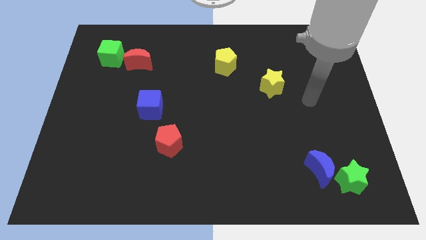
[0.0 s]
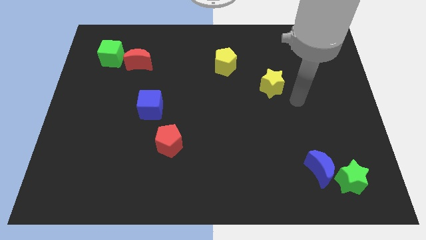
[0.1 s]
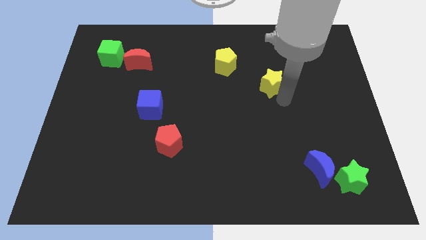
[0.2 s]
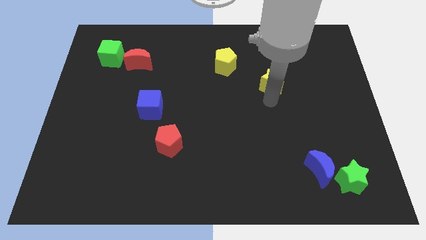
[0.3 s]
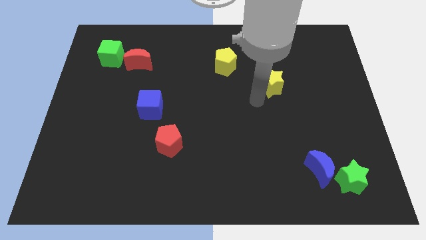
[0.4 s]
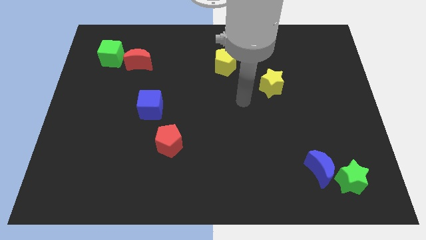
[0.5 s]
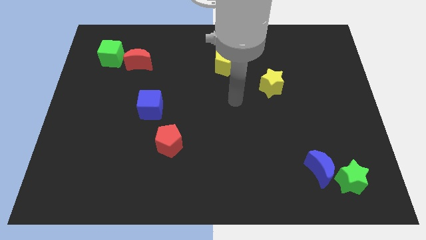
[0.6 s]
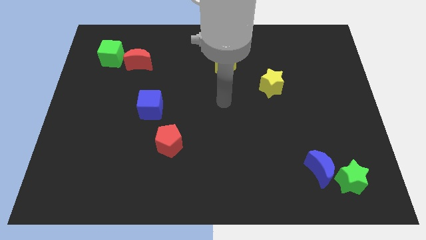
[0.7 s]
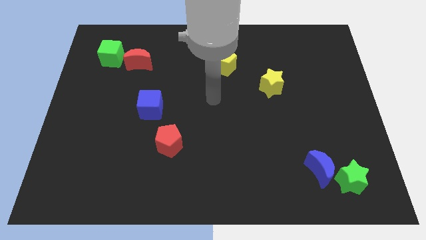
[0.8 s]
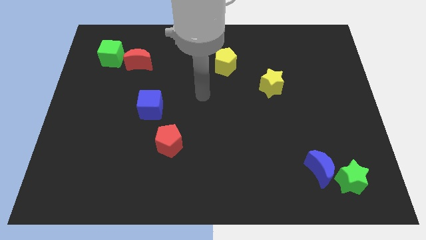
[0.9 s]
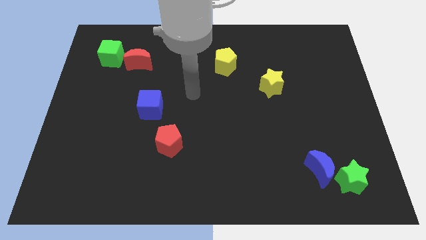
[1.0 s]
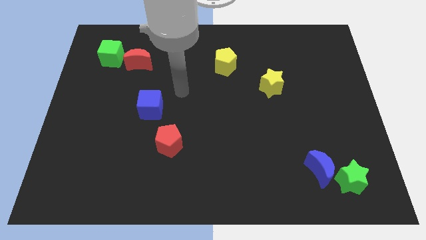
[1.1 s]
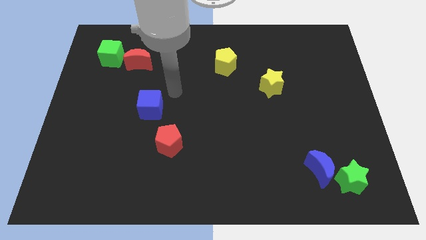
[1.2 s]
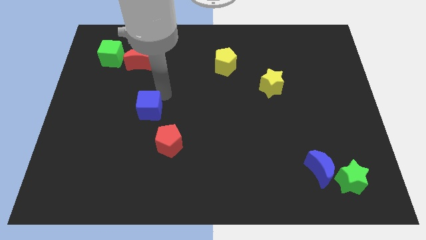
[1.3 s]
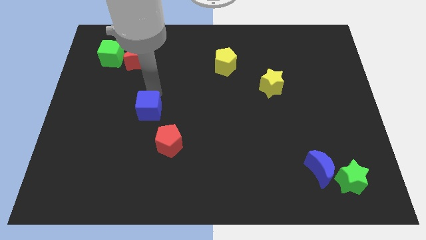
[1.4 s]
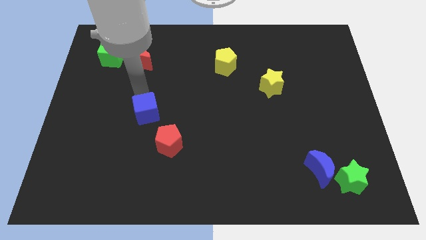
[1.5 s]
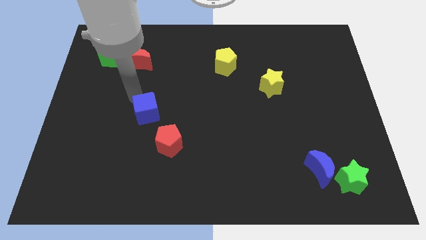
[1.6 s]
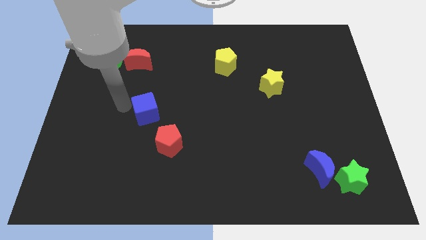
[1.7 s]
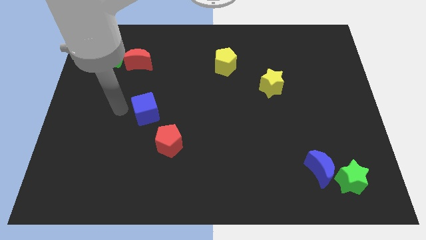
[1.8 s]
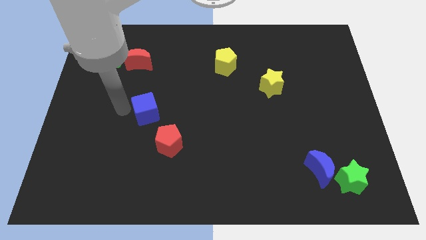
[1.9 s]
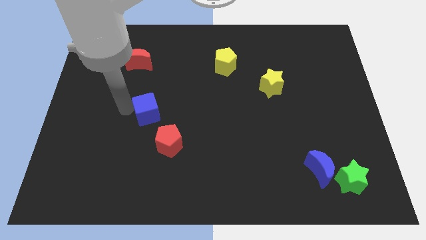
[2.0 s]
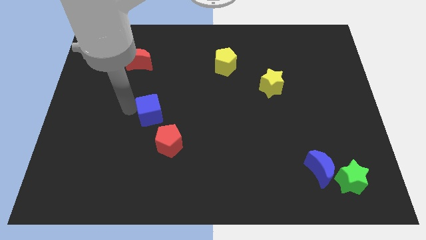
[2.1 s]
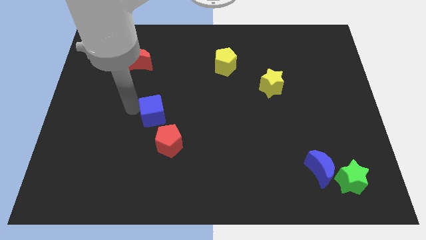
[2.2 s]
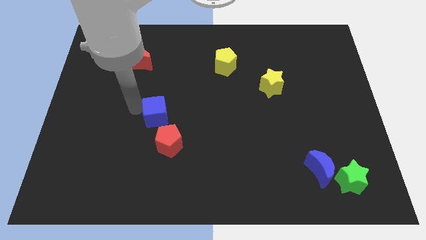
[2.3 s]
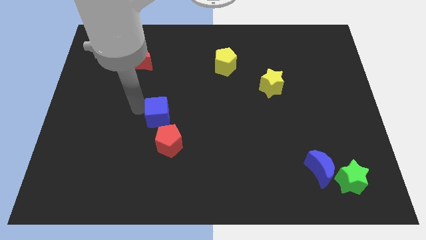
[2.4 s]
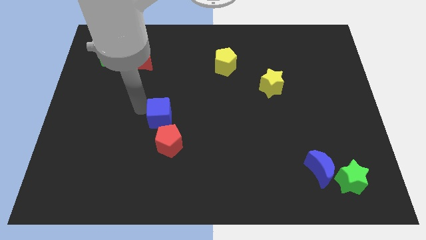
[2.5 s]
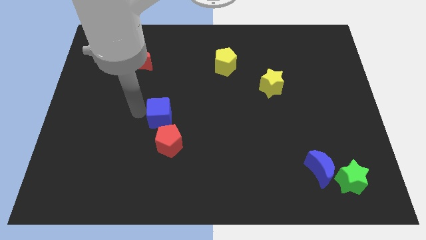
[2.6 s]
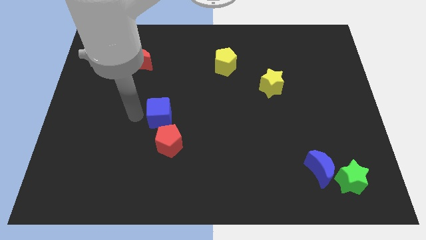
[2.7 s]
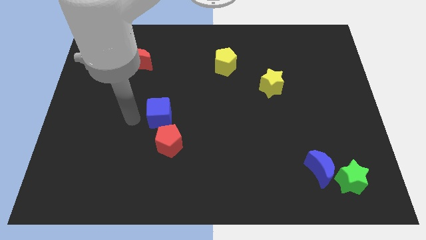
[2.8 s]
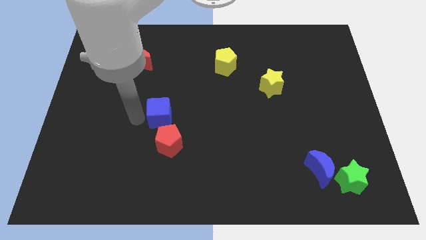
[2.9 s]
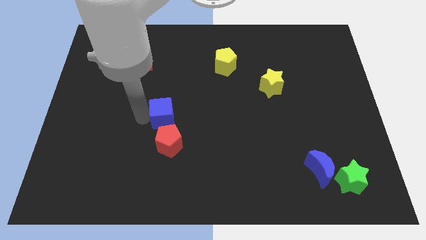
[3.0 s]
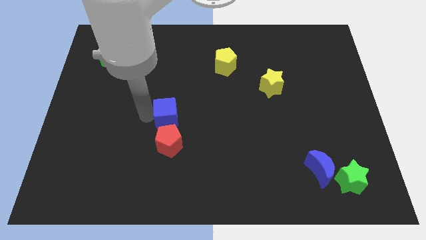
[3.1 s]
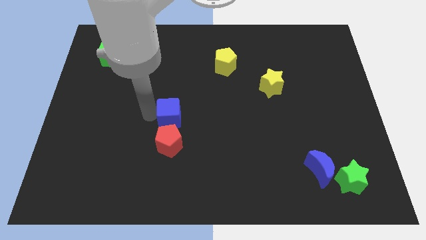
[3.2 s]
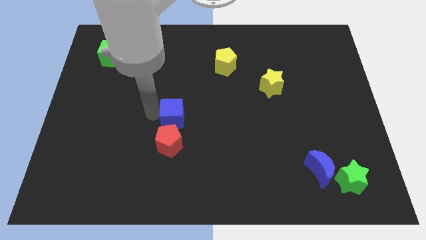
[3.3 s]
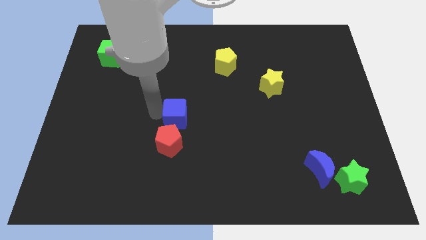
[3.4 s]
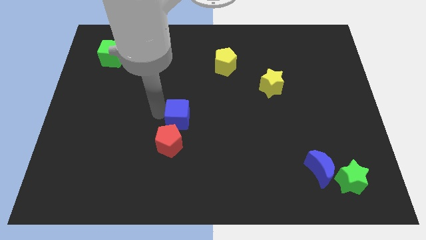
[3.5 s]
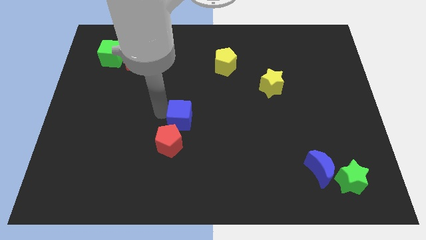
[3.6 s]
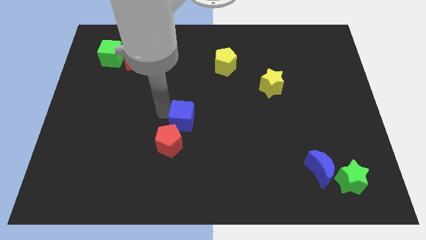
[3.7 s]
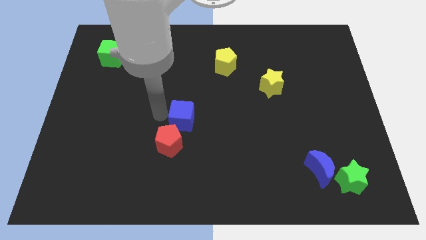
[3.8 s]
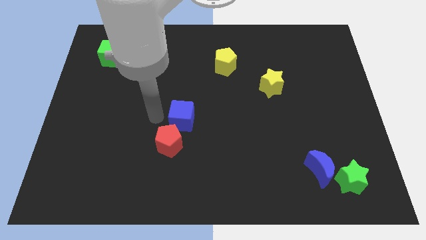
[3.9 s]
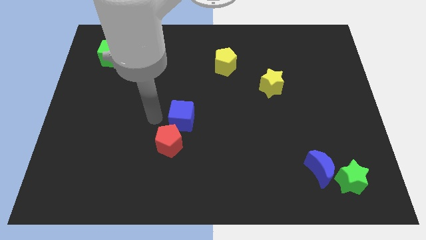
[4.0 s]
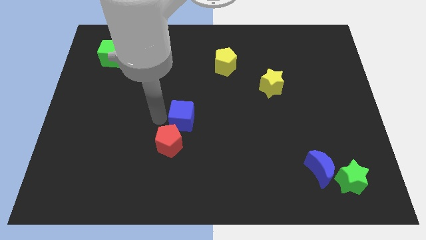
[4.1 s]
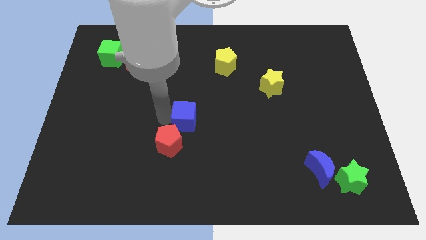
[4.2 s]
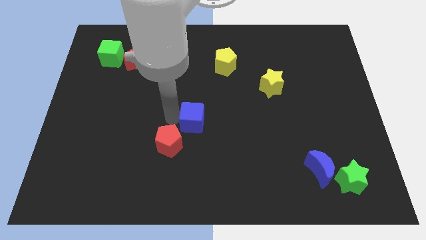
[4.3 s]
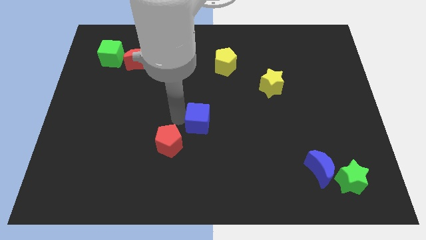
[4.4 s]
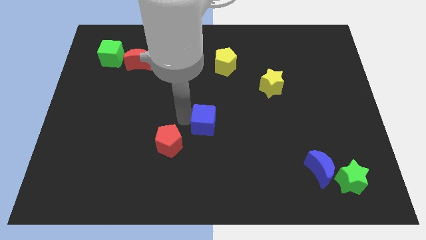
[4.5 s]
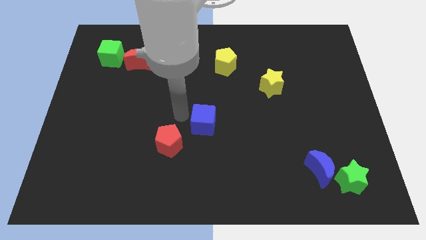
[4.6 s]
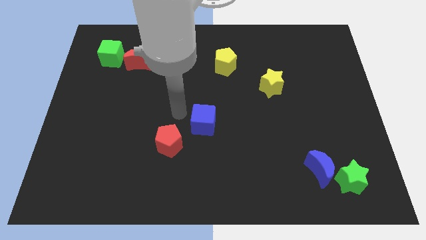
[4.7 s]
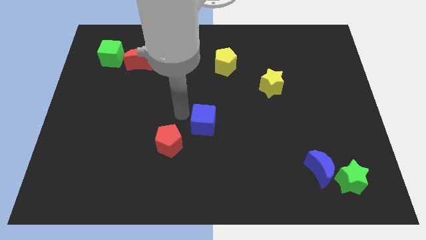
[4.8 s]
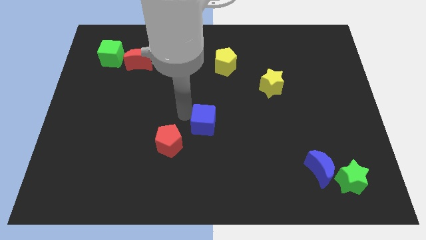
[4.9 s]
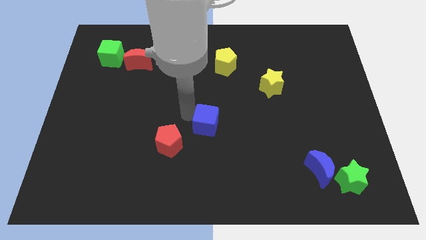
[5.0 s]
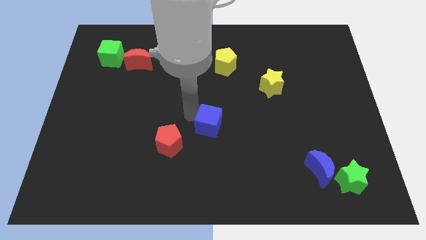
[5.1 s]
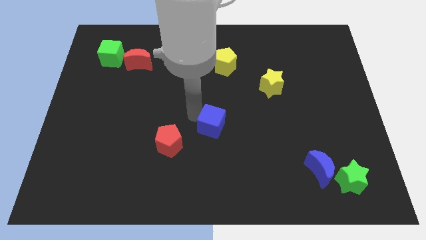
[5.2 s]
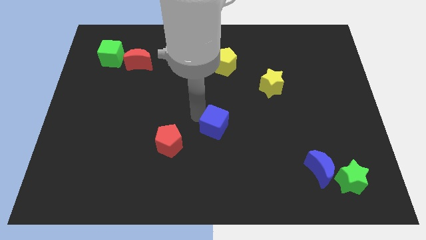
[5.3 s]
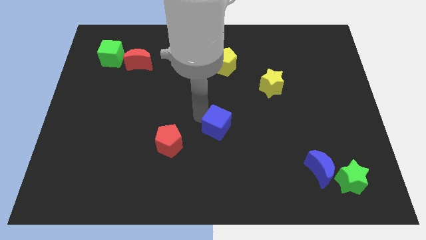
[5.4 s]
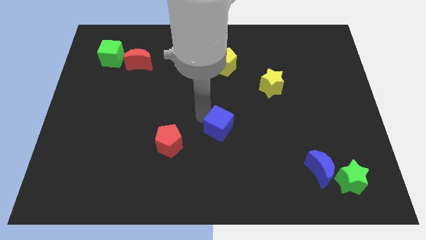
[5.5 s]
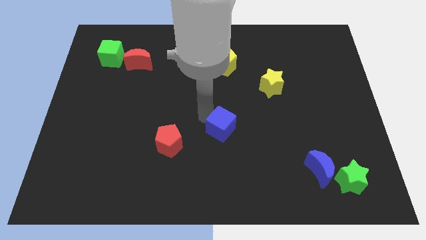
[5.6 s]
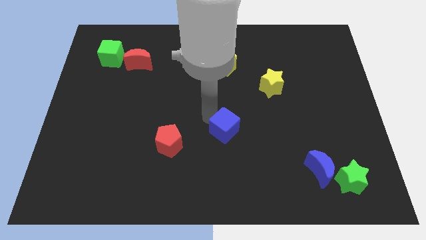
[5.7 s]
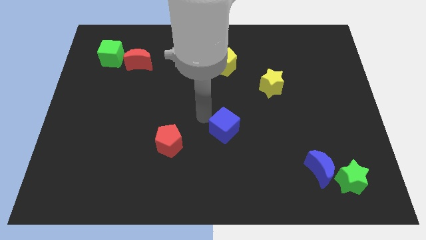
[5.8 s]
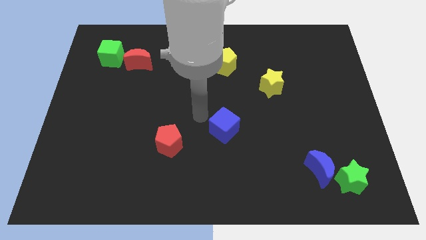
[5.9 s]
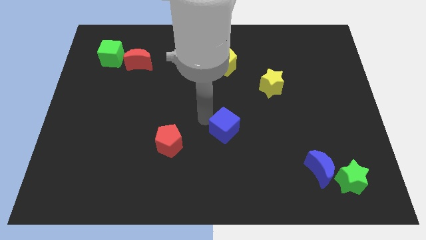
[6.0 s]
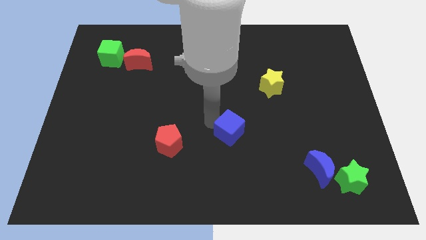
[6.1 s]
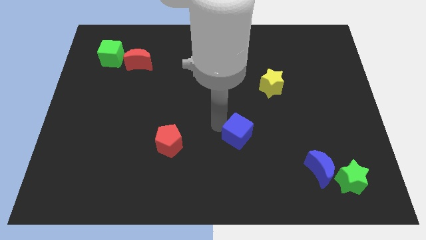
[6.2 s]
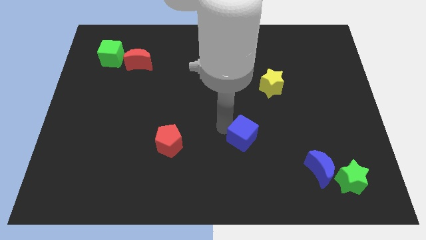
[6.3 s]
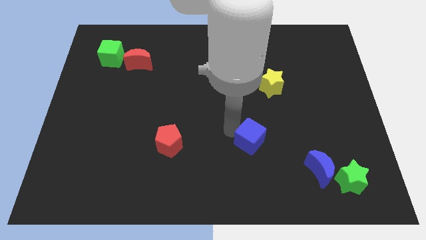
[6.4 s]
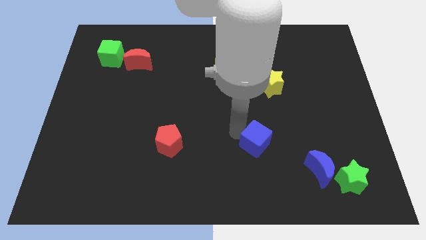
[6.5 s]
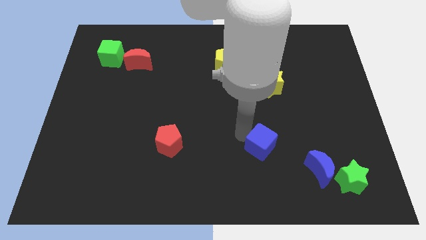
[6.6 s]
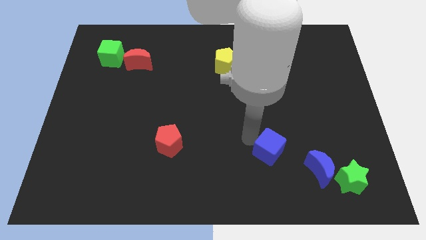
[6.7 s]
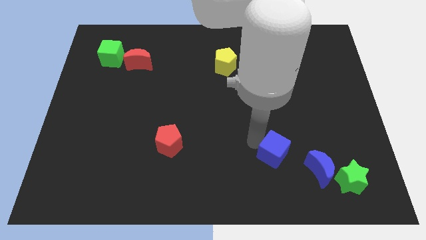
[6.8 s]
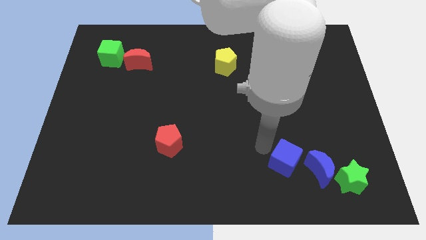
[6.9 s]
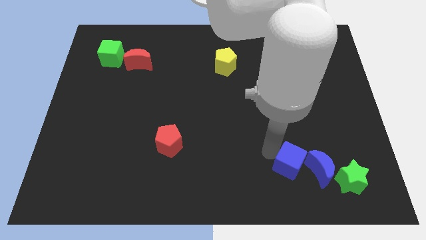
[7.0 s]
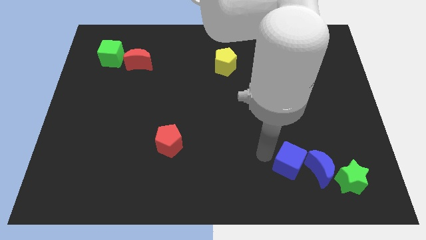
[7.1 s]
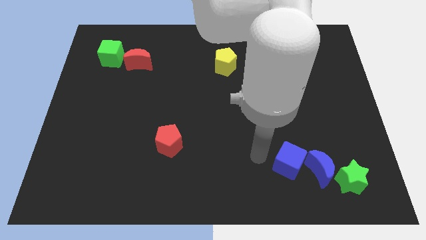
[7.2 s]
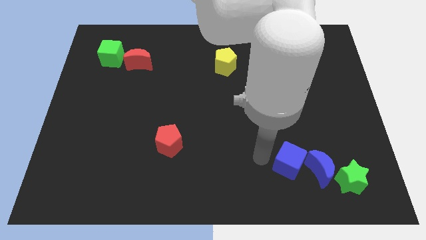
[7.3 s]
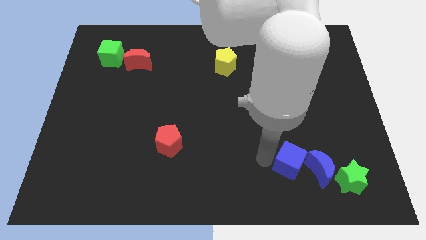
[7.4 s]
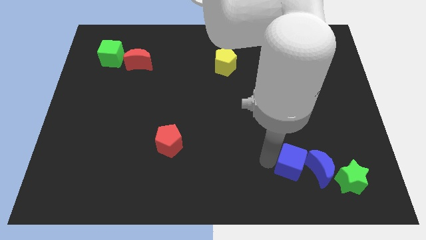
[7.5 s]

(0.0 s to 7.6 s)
slide the blue cube close to the blue moon

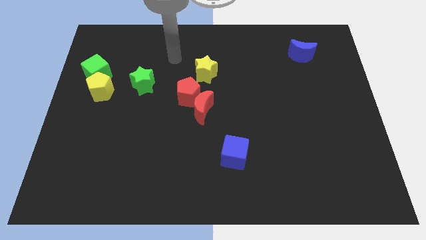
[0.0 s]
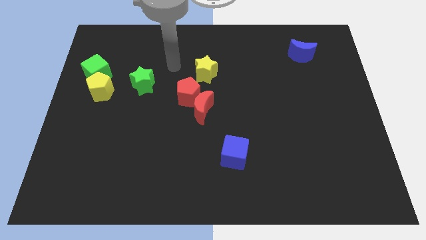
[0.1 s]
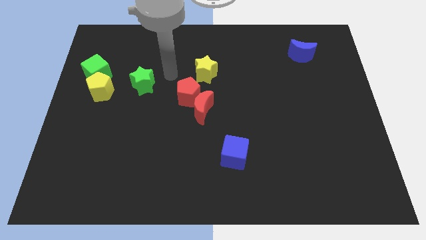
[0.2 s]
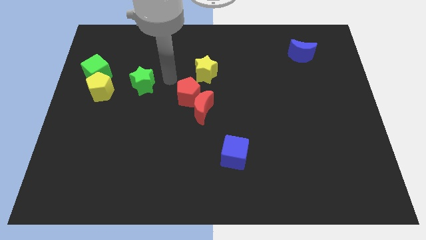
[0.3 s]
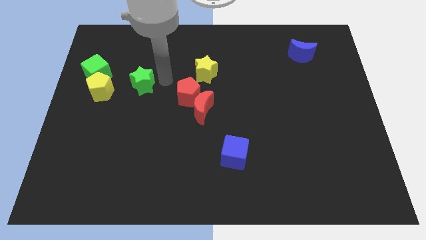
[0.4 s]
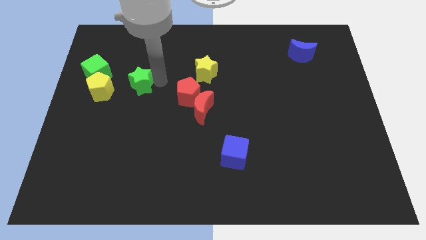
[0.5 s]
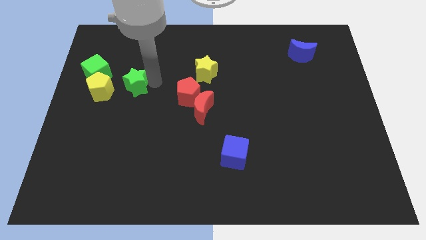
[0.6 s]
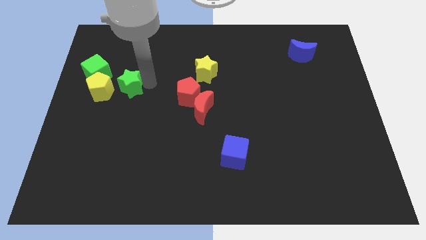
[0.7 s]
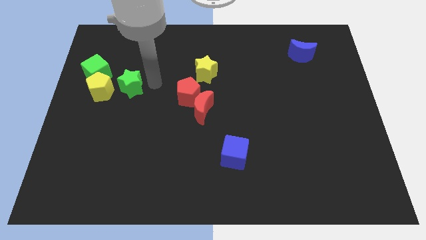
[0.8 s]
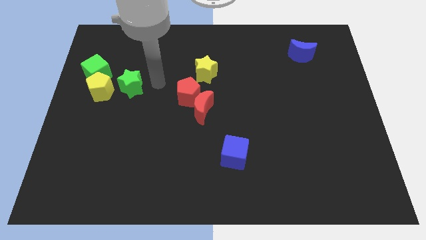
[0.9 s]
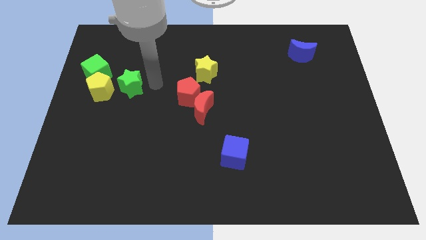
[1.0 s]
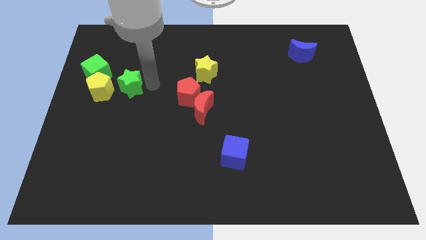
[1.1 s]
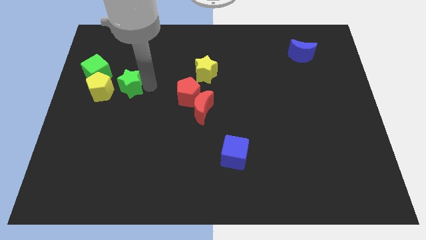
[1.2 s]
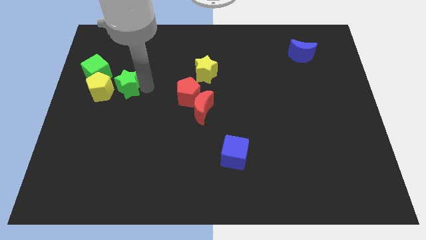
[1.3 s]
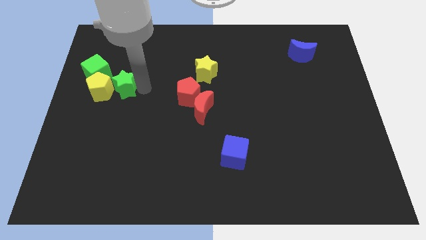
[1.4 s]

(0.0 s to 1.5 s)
move the green star next to the yellow pentagon
